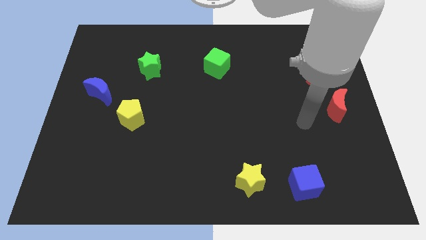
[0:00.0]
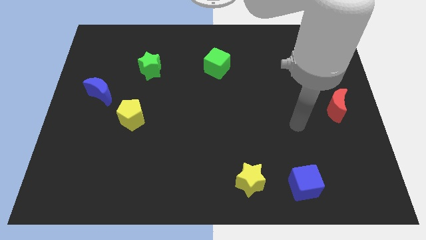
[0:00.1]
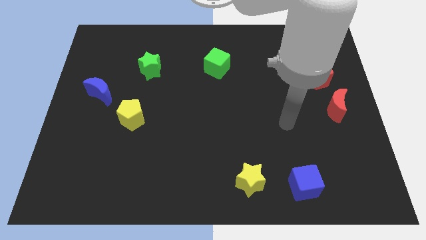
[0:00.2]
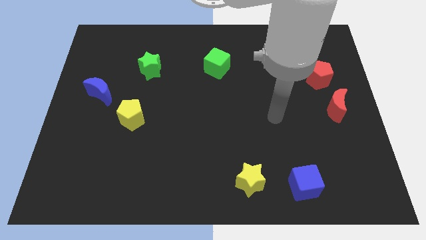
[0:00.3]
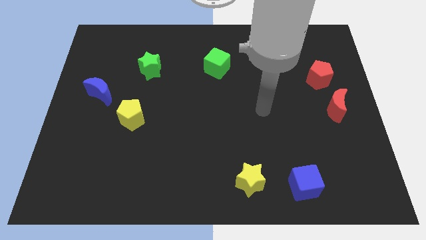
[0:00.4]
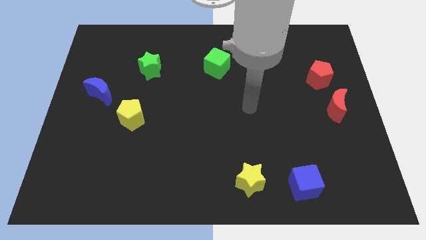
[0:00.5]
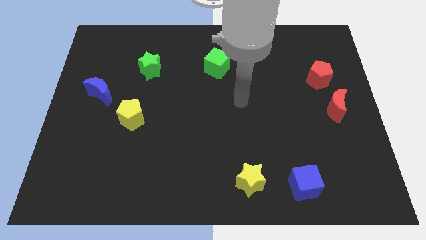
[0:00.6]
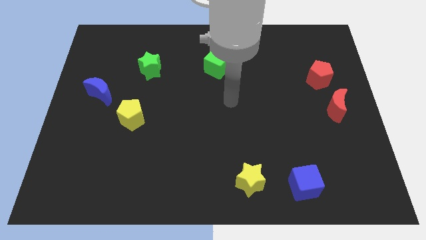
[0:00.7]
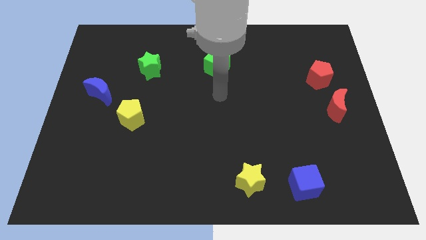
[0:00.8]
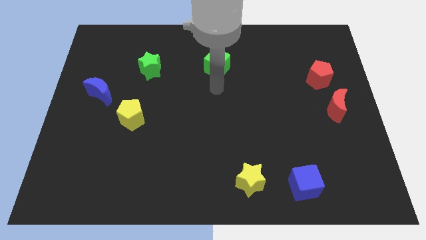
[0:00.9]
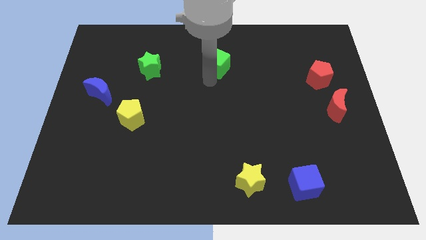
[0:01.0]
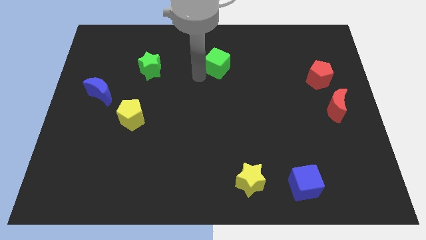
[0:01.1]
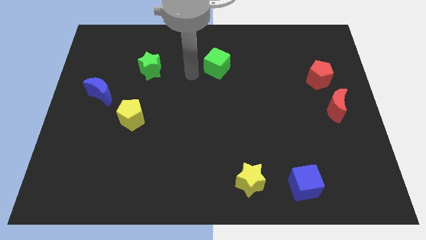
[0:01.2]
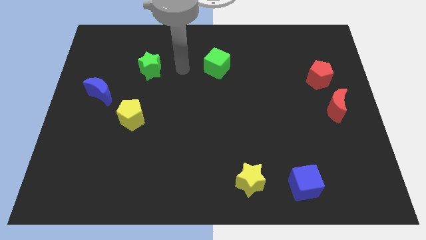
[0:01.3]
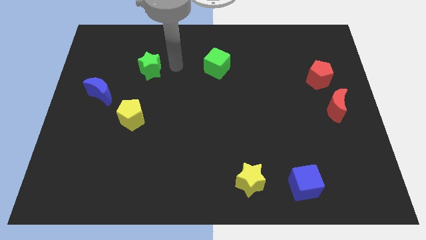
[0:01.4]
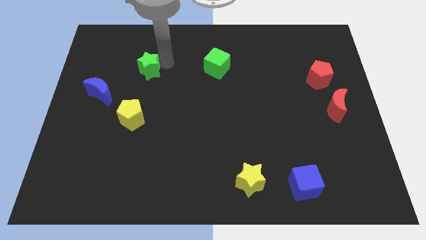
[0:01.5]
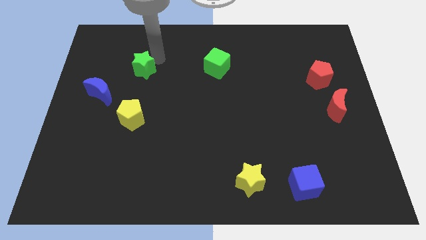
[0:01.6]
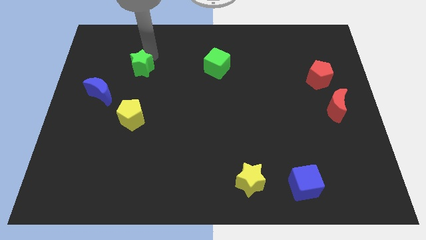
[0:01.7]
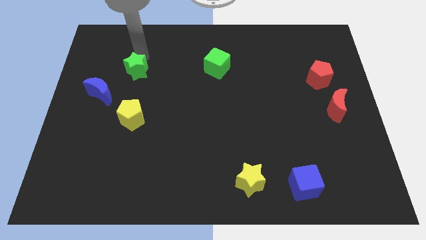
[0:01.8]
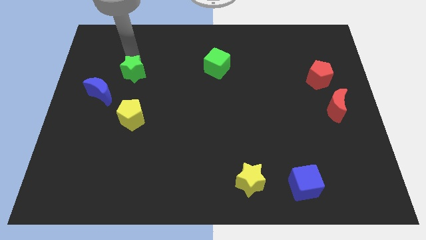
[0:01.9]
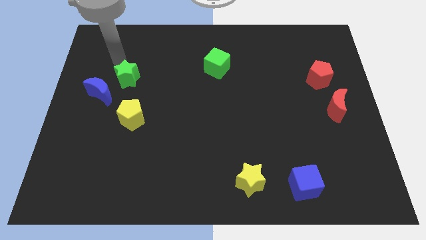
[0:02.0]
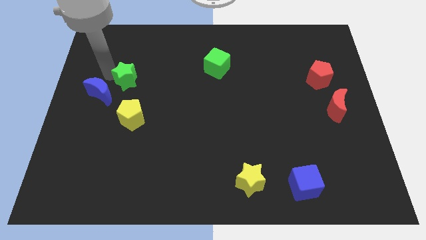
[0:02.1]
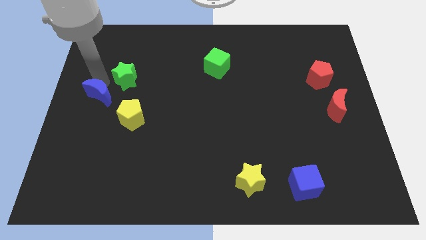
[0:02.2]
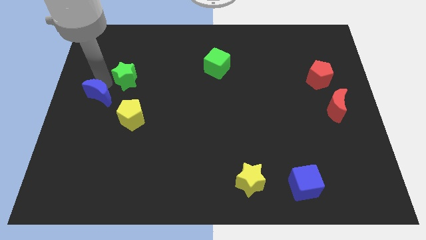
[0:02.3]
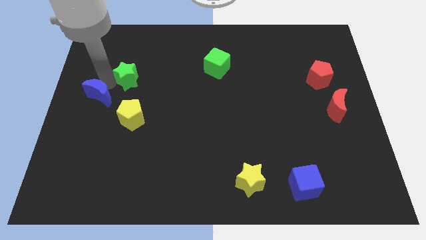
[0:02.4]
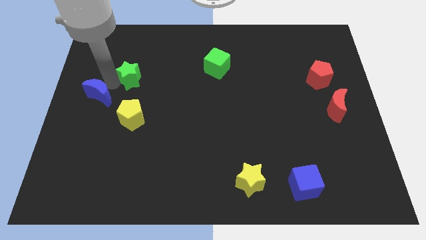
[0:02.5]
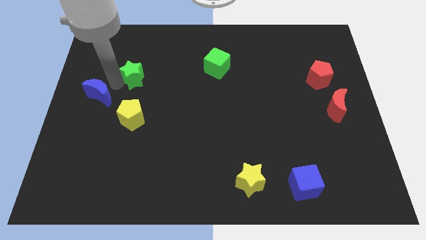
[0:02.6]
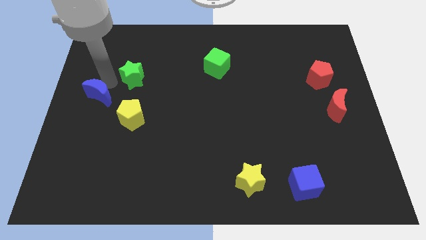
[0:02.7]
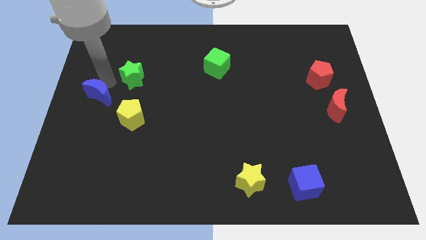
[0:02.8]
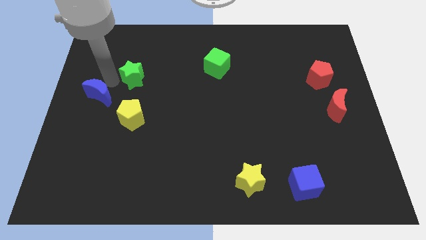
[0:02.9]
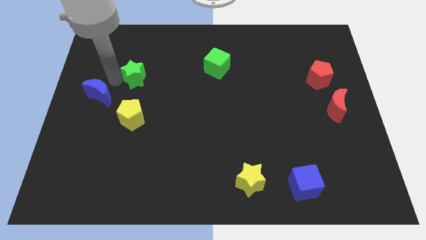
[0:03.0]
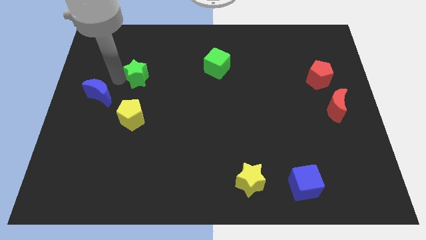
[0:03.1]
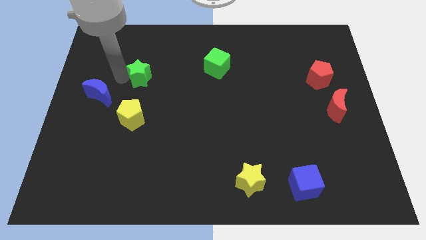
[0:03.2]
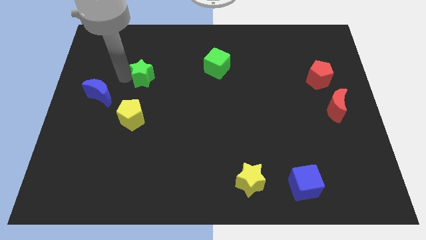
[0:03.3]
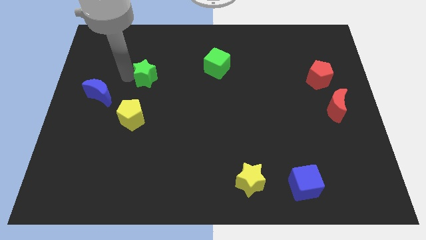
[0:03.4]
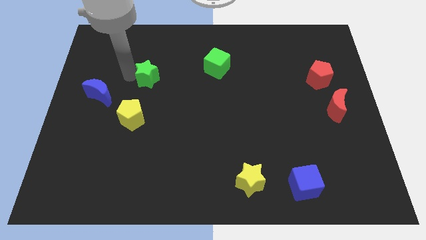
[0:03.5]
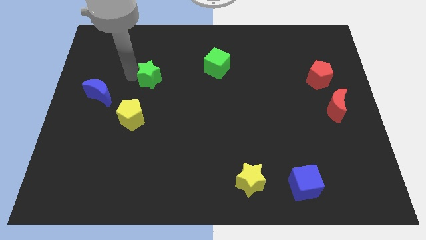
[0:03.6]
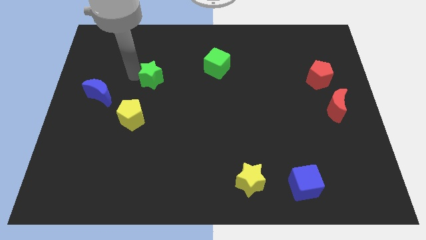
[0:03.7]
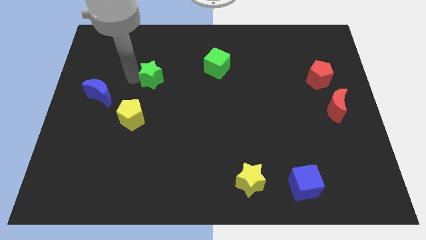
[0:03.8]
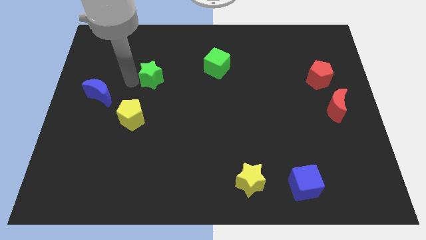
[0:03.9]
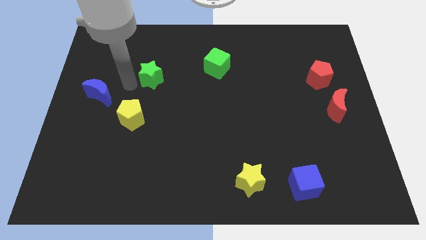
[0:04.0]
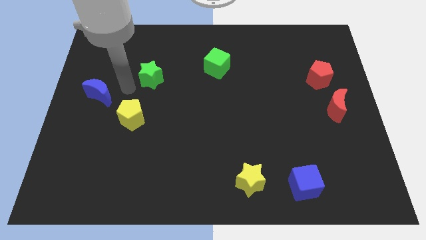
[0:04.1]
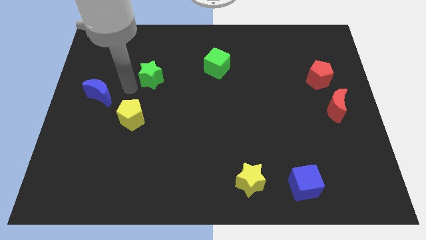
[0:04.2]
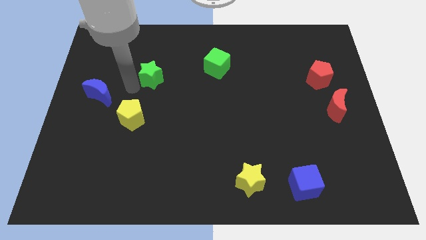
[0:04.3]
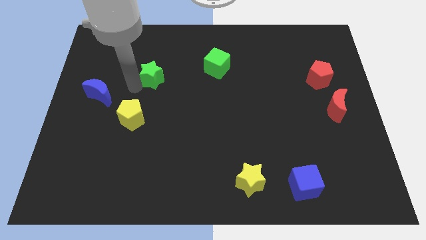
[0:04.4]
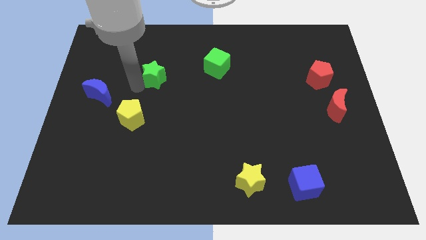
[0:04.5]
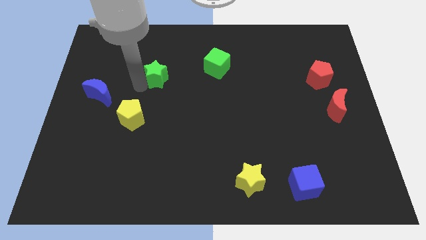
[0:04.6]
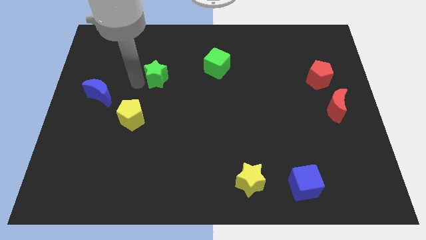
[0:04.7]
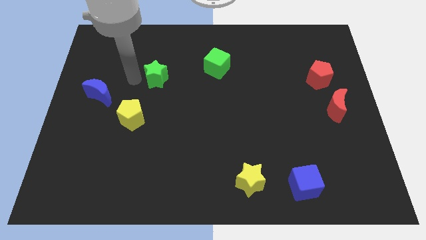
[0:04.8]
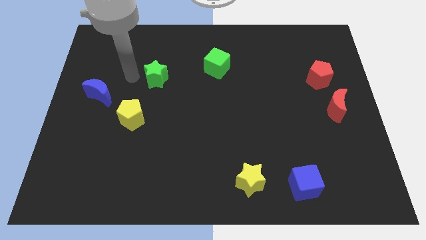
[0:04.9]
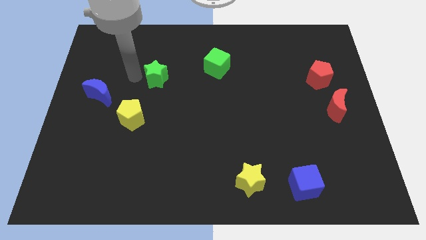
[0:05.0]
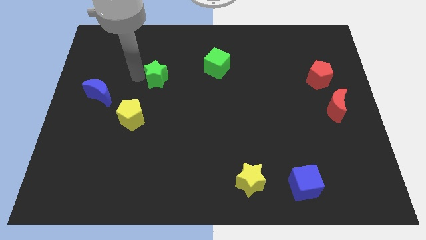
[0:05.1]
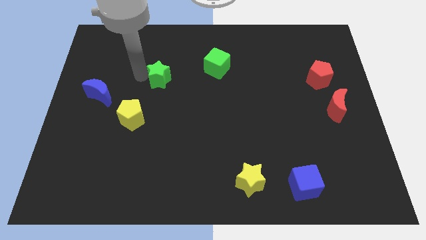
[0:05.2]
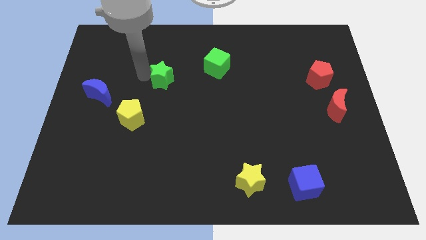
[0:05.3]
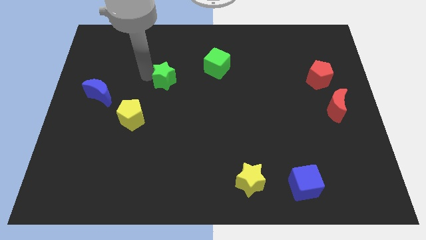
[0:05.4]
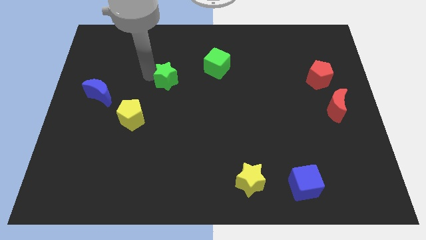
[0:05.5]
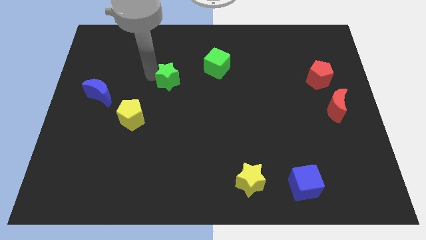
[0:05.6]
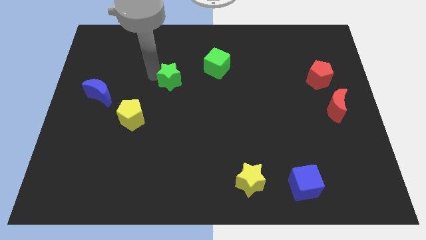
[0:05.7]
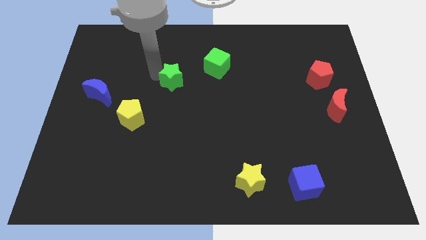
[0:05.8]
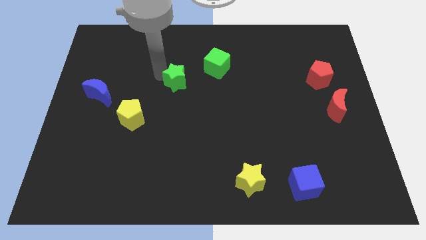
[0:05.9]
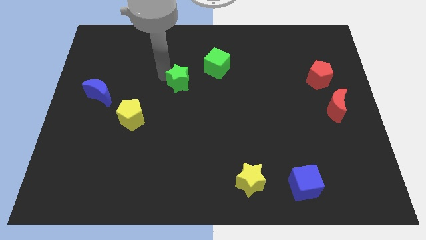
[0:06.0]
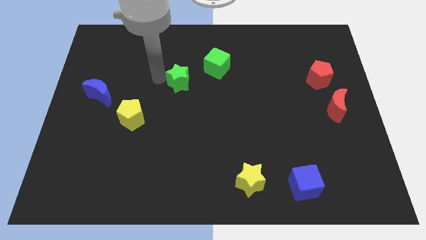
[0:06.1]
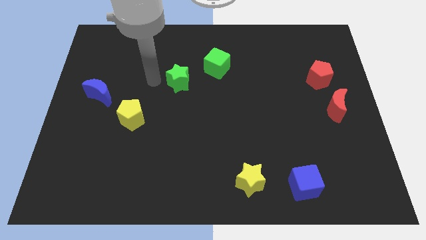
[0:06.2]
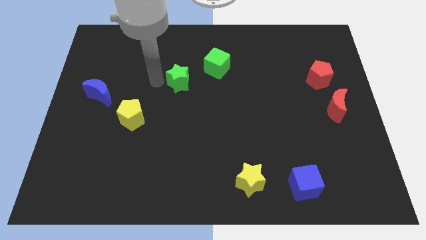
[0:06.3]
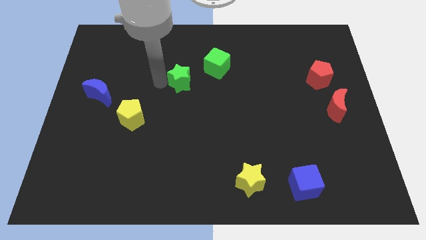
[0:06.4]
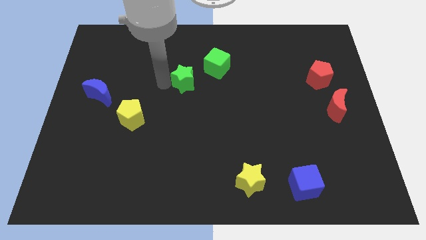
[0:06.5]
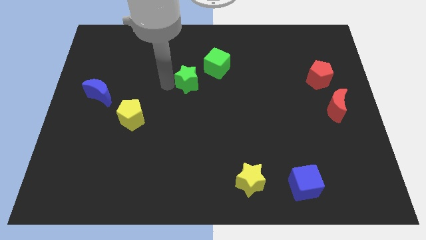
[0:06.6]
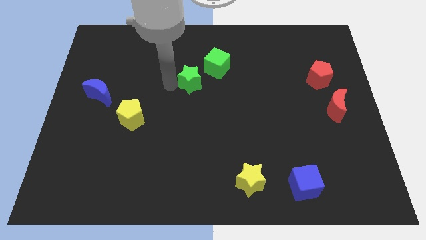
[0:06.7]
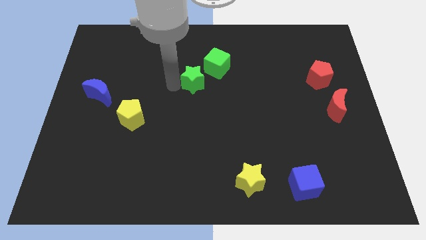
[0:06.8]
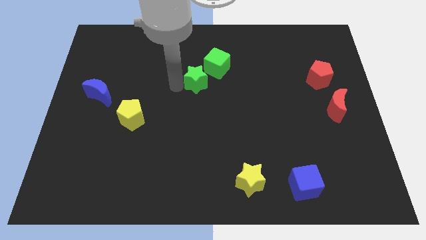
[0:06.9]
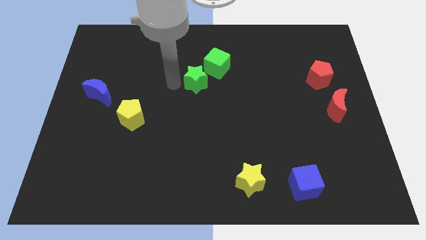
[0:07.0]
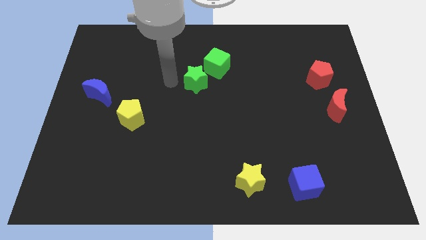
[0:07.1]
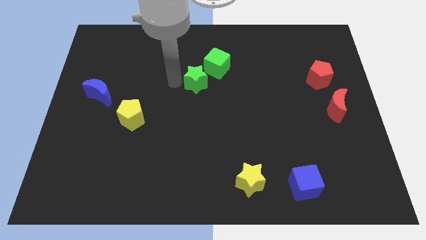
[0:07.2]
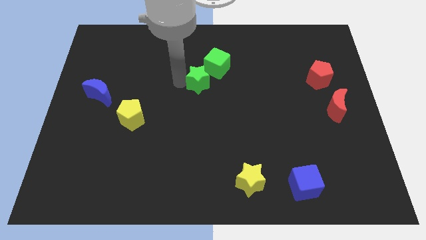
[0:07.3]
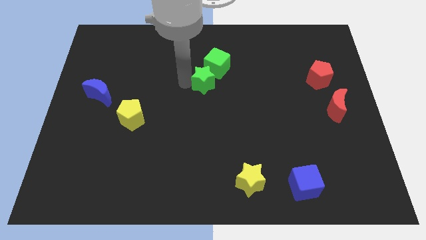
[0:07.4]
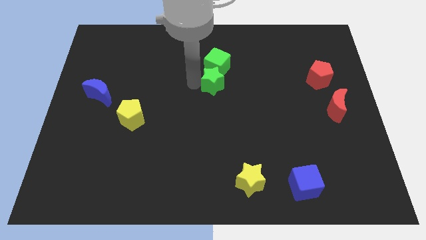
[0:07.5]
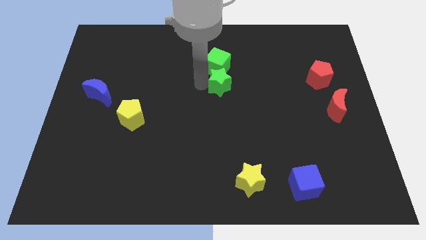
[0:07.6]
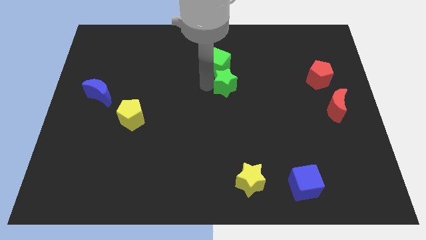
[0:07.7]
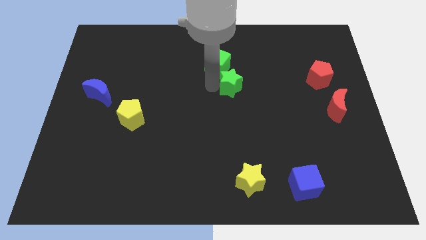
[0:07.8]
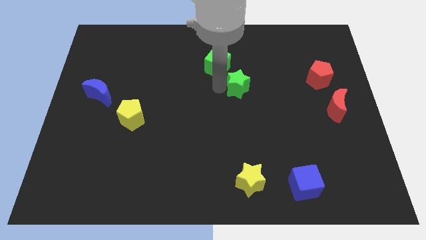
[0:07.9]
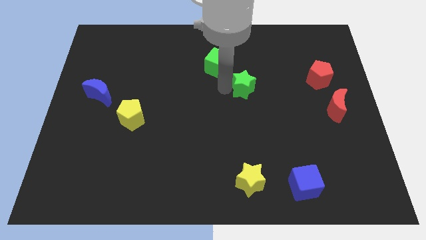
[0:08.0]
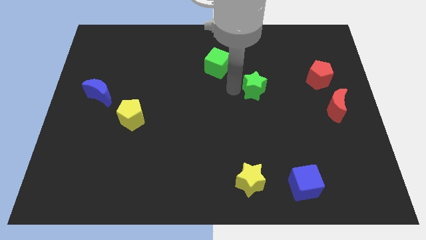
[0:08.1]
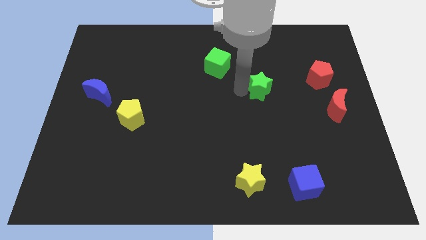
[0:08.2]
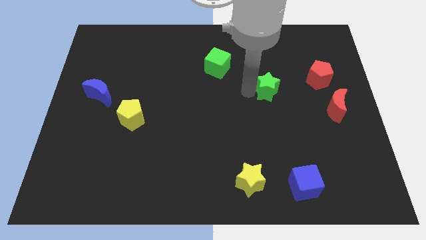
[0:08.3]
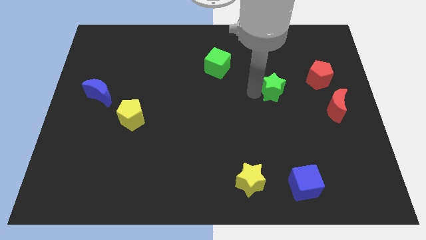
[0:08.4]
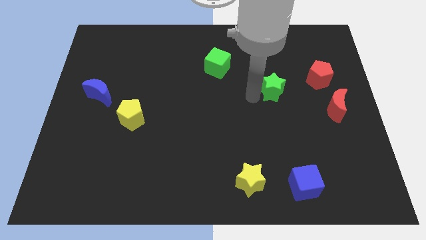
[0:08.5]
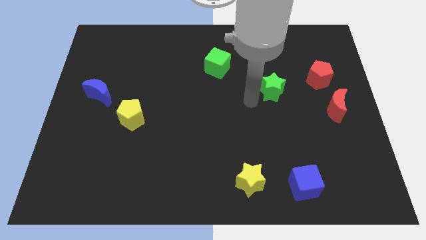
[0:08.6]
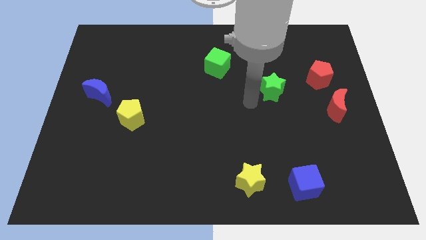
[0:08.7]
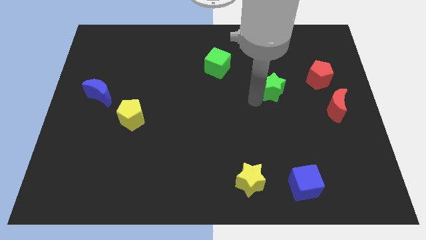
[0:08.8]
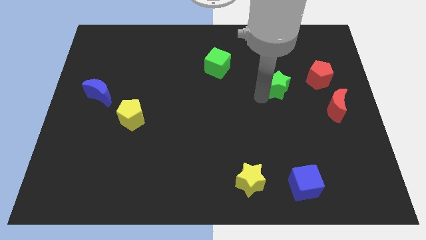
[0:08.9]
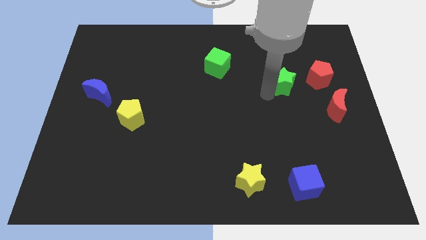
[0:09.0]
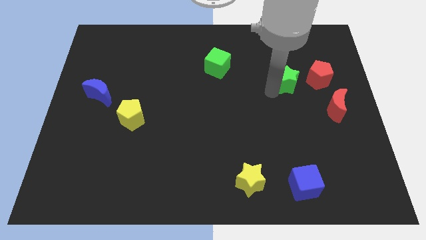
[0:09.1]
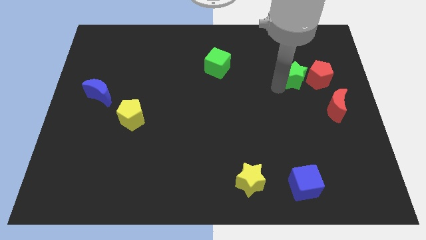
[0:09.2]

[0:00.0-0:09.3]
put the green star close to the red pentagon
